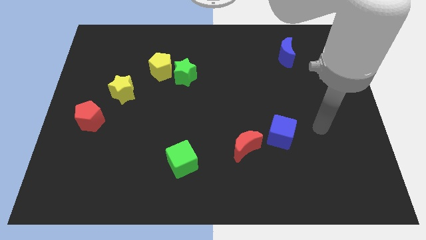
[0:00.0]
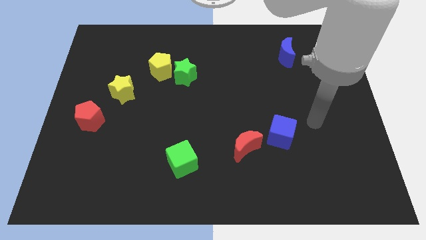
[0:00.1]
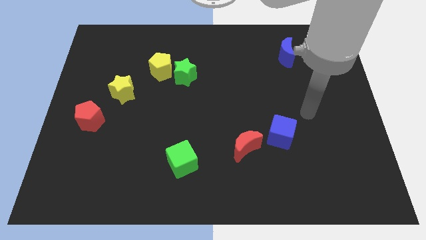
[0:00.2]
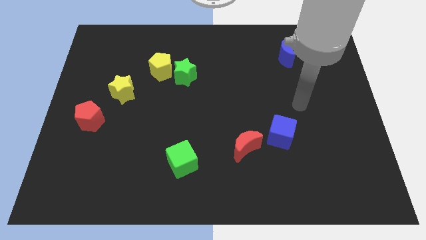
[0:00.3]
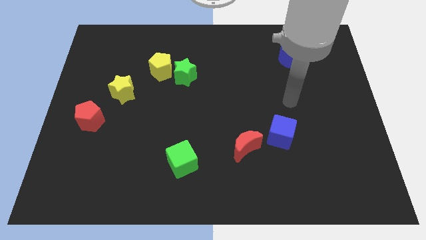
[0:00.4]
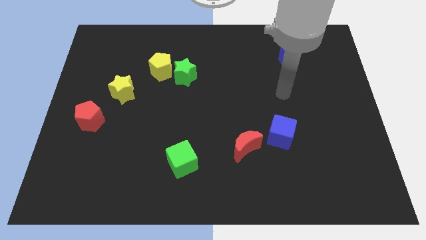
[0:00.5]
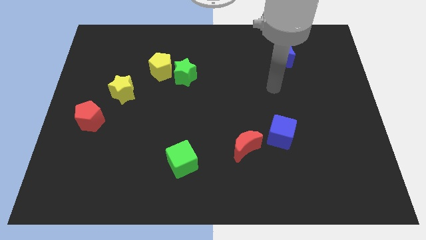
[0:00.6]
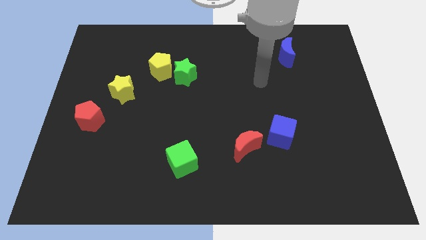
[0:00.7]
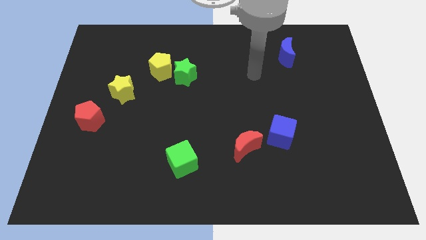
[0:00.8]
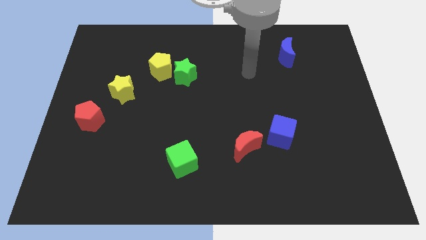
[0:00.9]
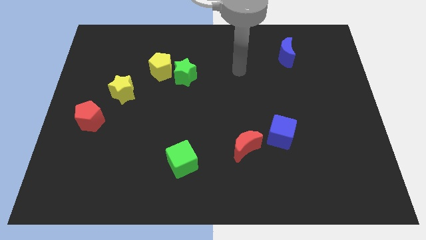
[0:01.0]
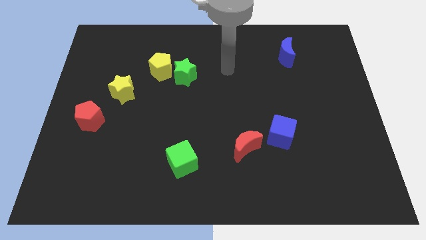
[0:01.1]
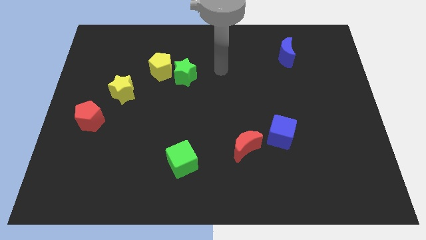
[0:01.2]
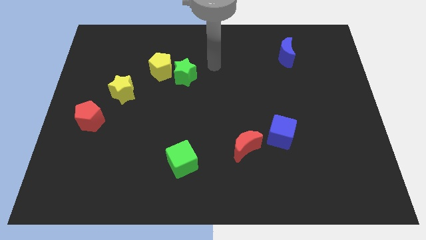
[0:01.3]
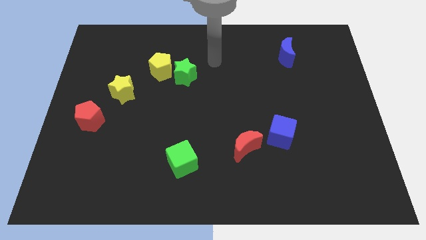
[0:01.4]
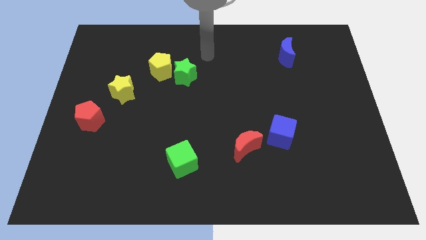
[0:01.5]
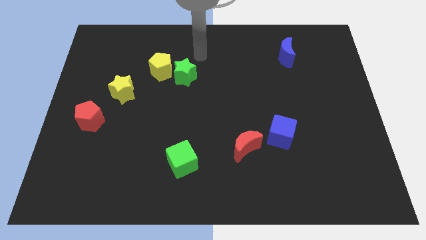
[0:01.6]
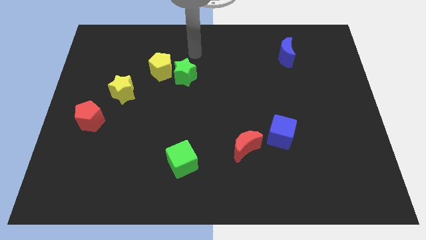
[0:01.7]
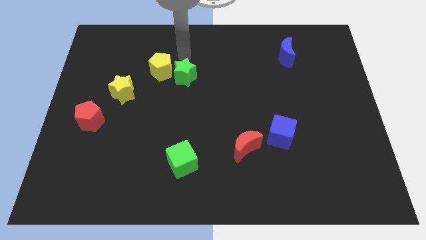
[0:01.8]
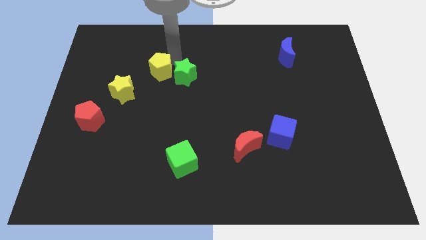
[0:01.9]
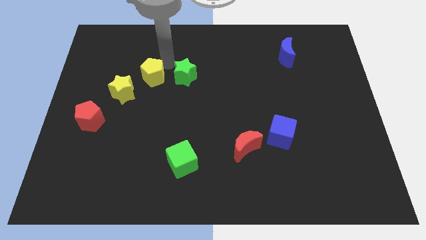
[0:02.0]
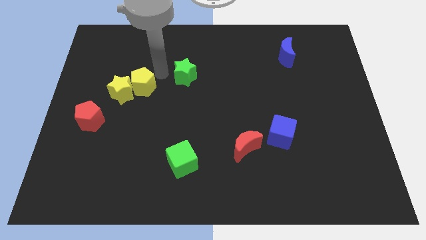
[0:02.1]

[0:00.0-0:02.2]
separate the green star from the yellow pentagon

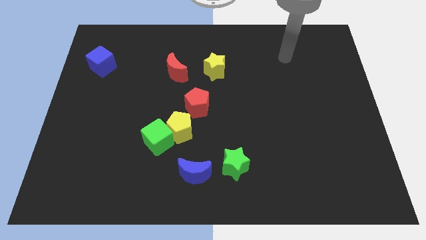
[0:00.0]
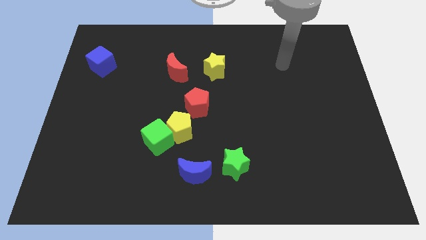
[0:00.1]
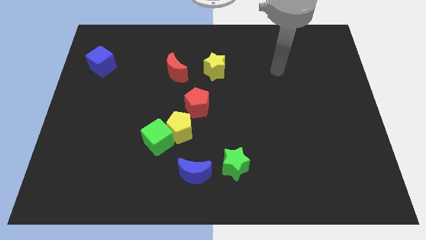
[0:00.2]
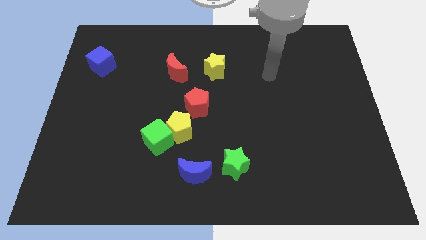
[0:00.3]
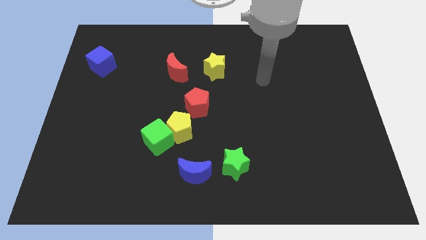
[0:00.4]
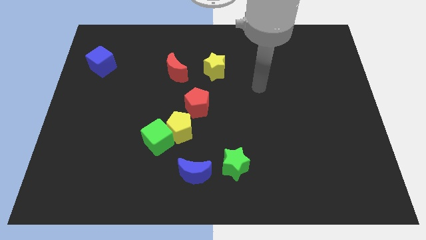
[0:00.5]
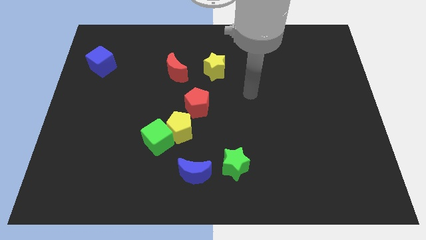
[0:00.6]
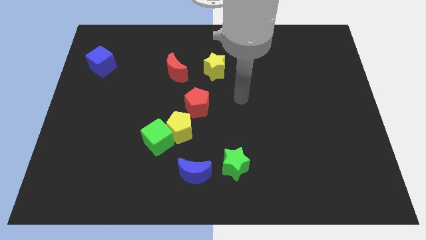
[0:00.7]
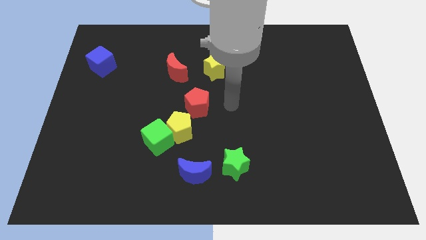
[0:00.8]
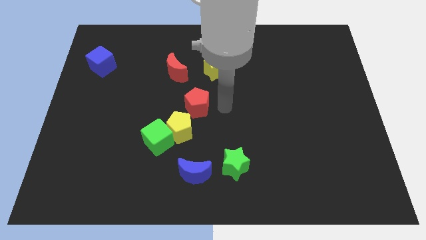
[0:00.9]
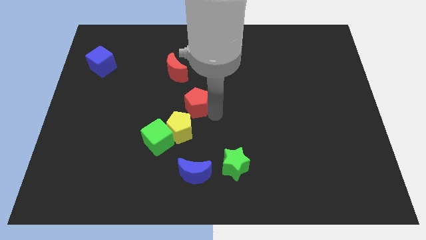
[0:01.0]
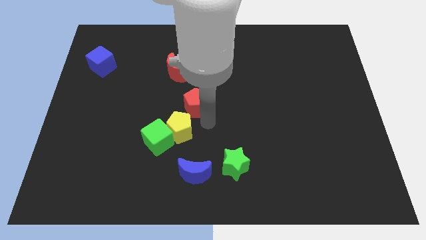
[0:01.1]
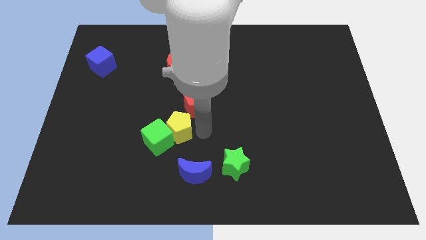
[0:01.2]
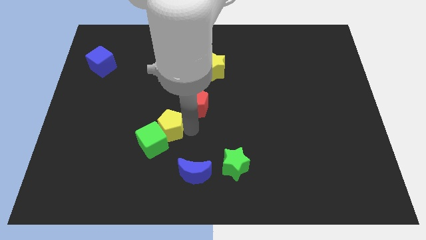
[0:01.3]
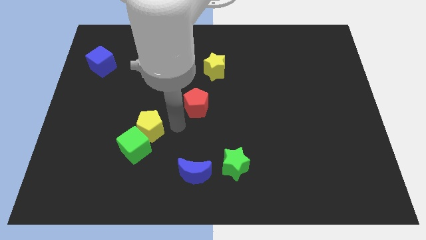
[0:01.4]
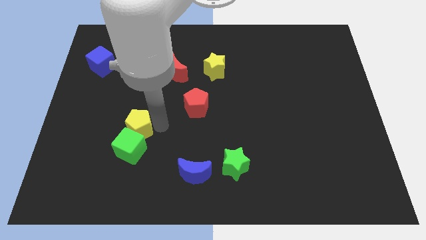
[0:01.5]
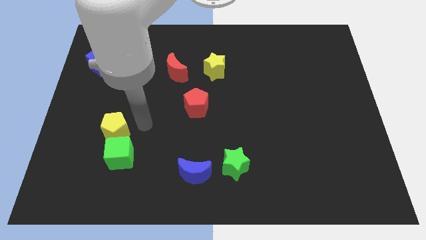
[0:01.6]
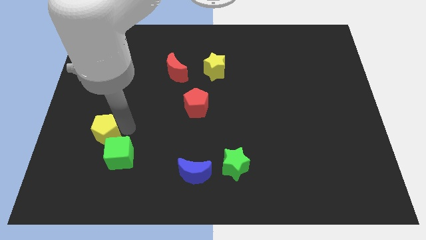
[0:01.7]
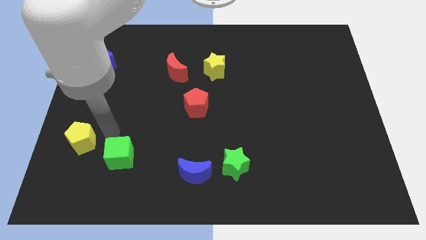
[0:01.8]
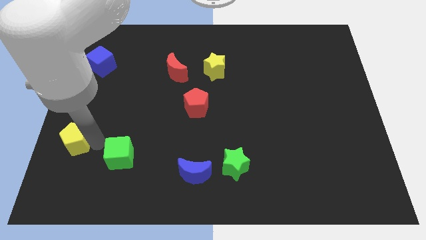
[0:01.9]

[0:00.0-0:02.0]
separate the green cube from the yellow pentagon

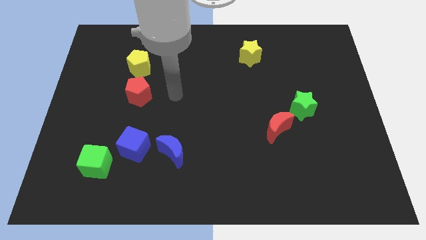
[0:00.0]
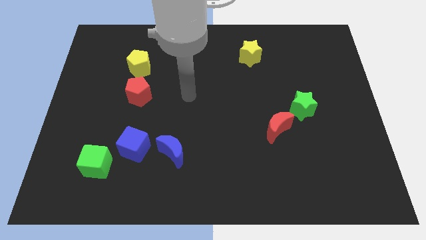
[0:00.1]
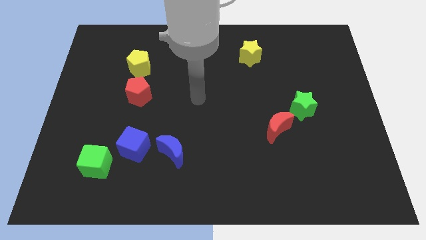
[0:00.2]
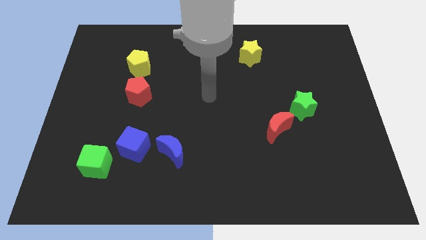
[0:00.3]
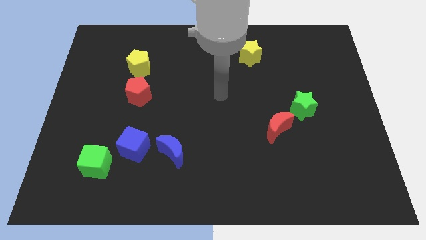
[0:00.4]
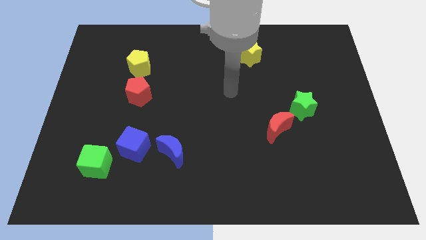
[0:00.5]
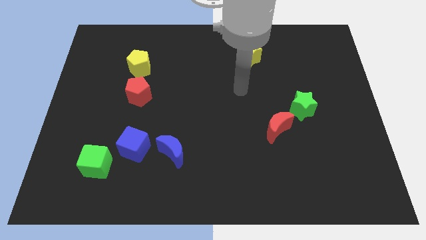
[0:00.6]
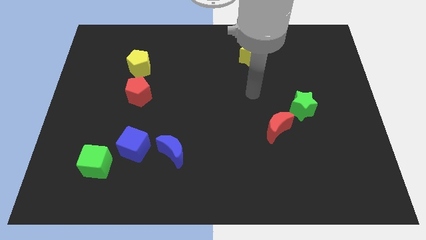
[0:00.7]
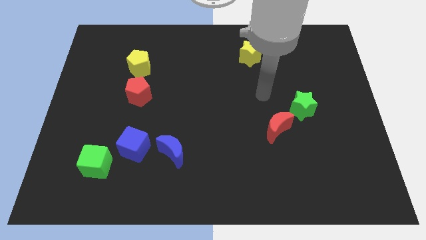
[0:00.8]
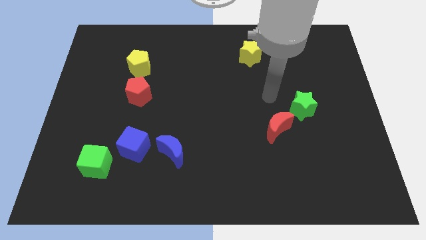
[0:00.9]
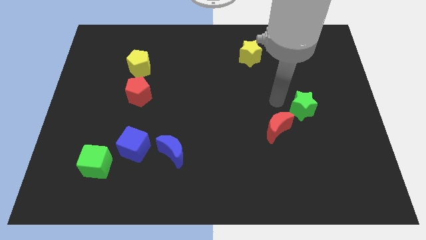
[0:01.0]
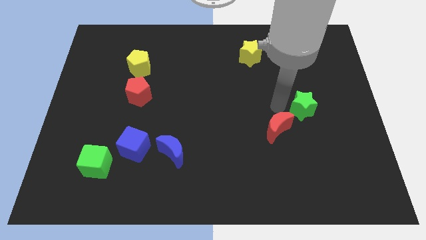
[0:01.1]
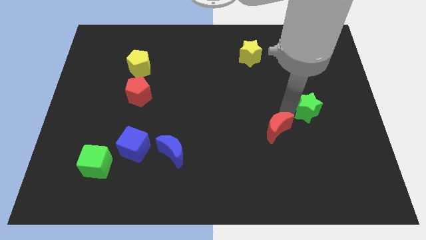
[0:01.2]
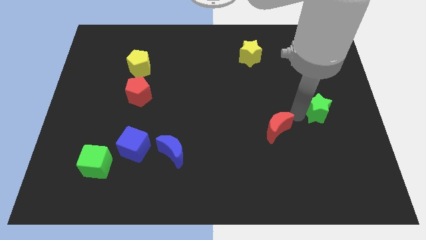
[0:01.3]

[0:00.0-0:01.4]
separate the red moon from the green star

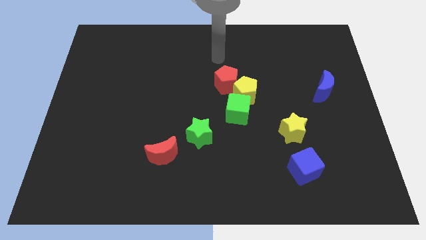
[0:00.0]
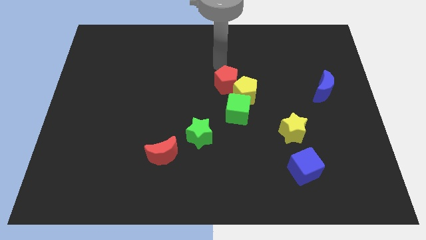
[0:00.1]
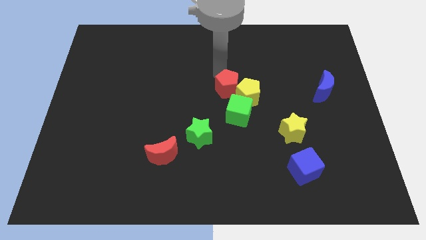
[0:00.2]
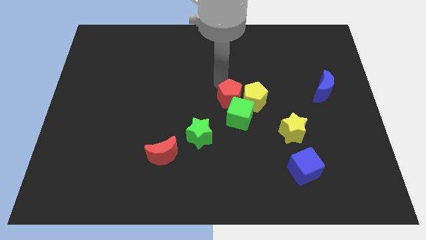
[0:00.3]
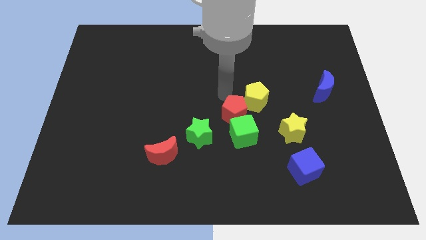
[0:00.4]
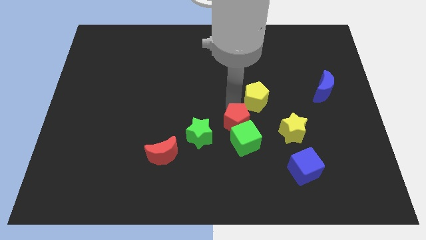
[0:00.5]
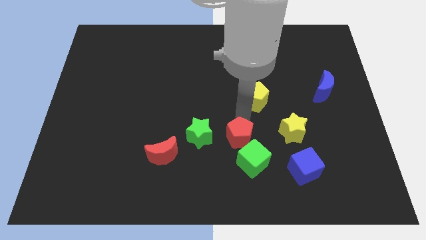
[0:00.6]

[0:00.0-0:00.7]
separate the yellow pentagon from the green cube and red pentagon

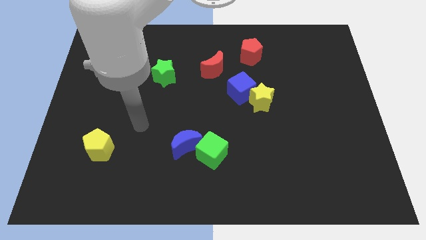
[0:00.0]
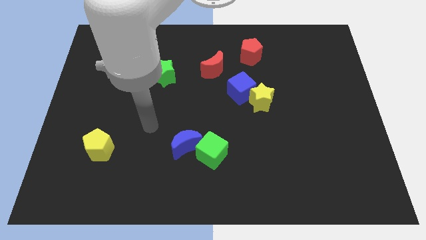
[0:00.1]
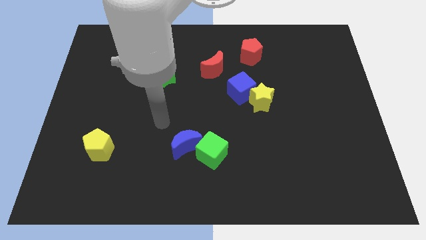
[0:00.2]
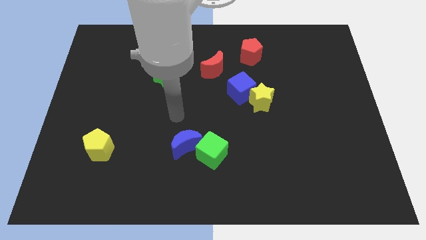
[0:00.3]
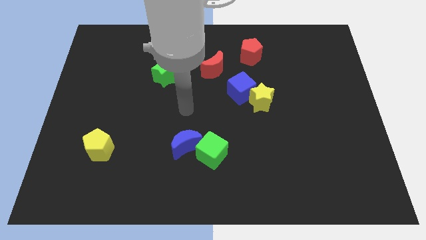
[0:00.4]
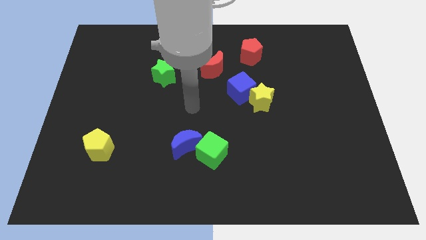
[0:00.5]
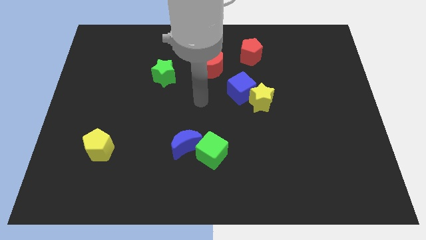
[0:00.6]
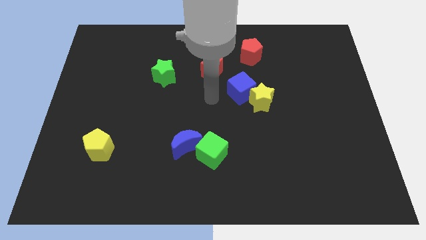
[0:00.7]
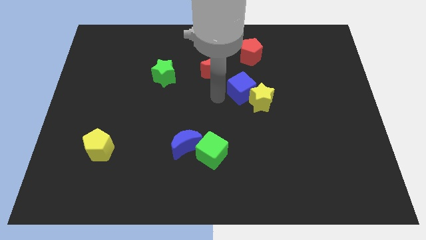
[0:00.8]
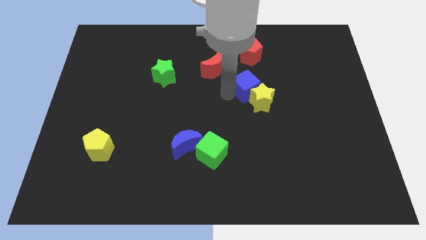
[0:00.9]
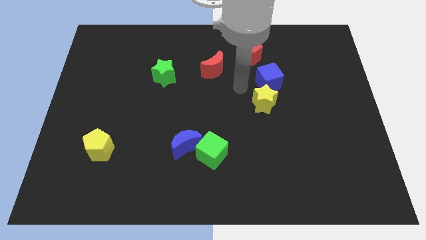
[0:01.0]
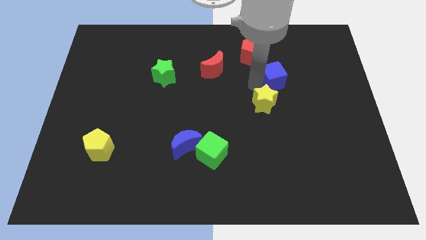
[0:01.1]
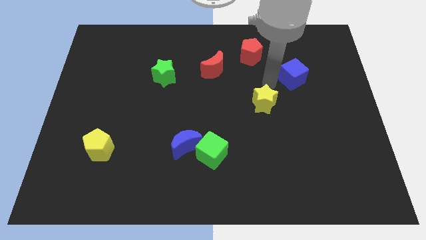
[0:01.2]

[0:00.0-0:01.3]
pull the yellow star apart from the blue cube

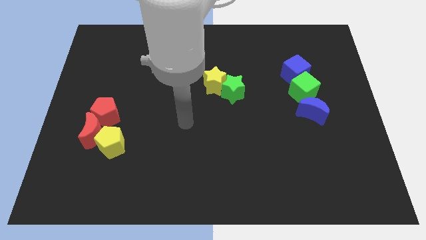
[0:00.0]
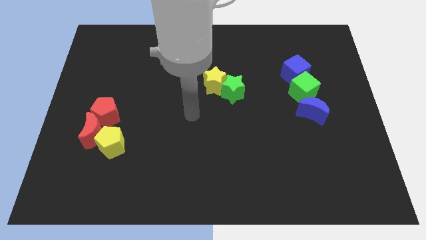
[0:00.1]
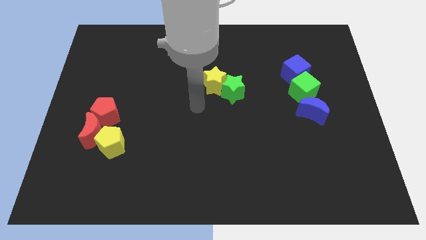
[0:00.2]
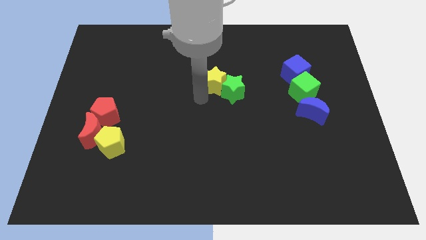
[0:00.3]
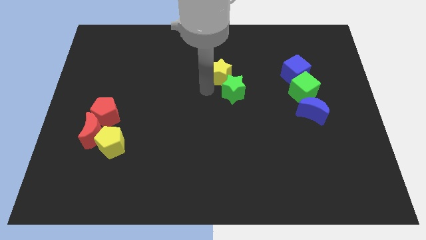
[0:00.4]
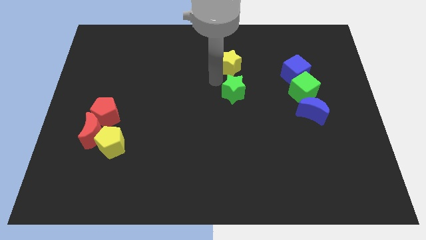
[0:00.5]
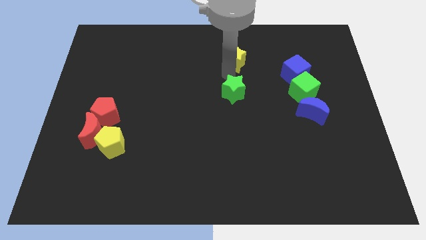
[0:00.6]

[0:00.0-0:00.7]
pull the green star apart from the yellow star

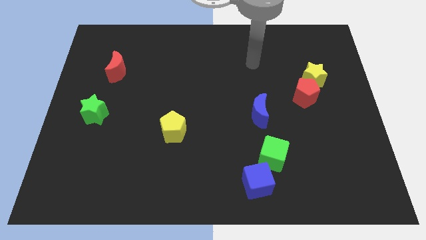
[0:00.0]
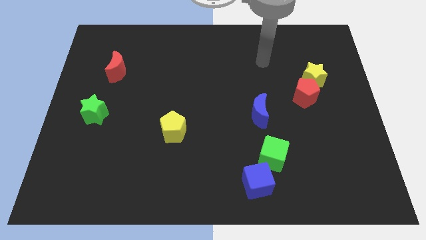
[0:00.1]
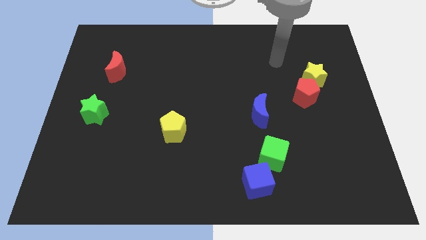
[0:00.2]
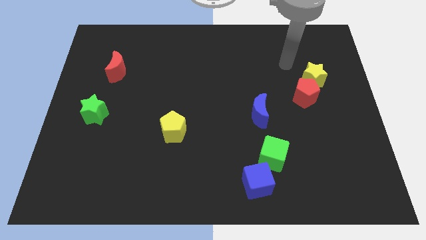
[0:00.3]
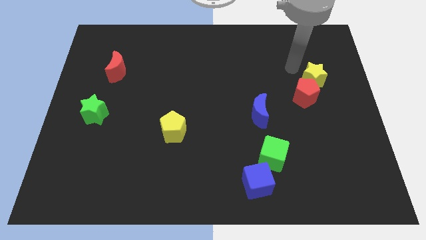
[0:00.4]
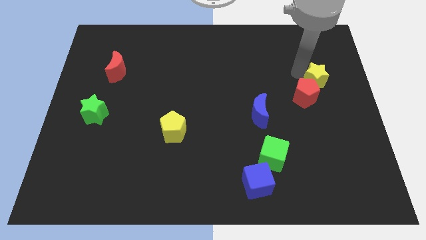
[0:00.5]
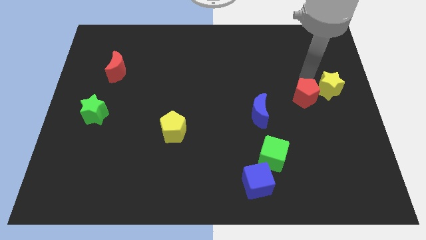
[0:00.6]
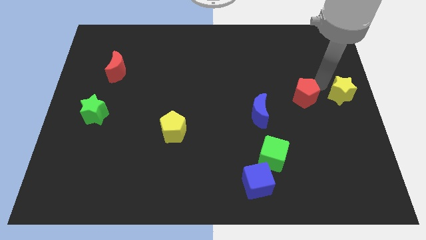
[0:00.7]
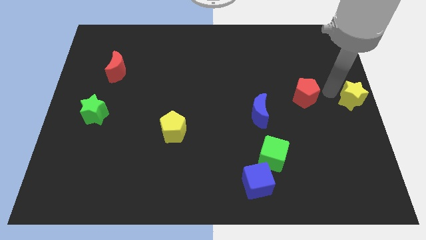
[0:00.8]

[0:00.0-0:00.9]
pull the red pentagon apart from the yellow star
